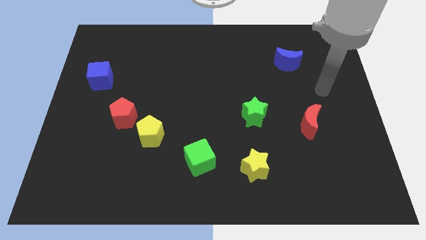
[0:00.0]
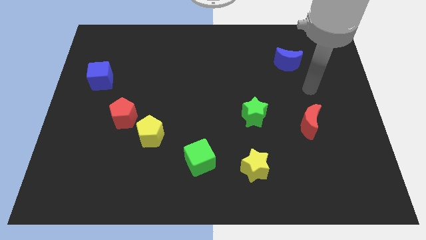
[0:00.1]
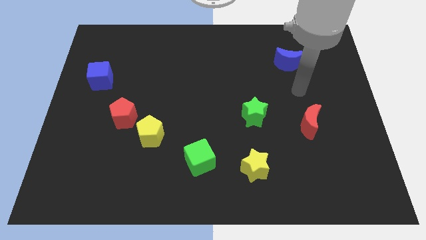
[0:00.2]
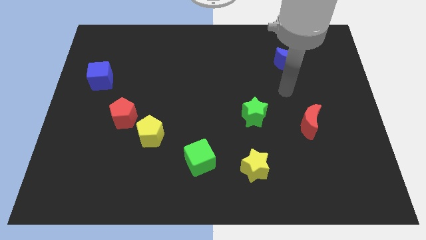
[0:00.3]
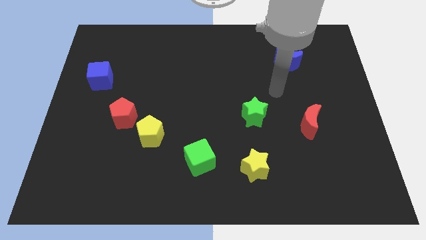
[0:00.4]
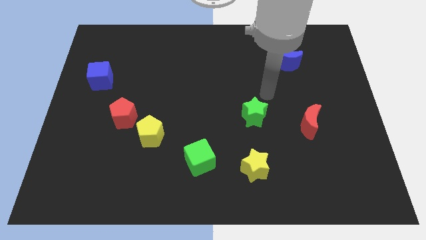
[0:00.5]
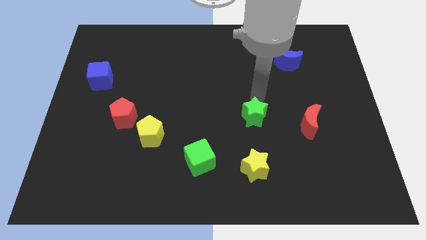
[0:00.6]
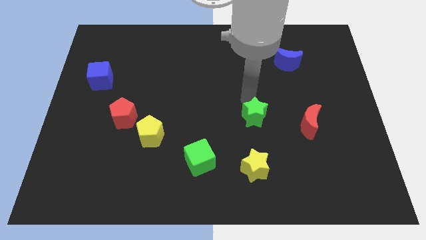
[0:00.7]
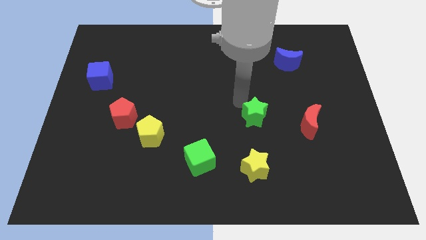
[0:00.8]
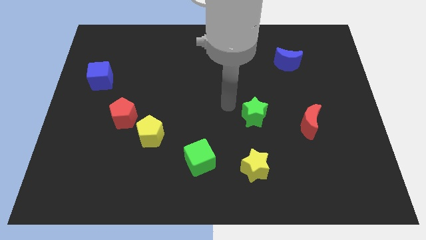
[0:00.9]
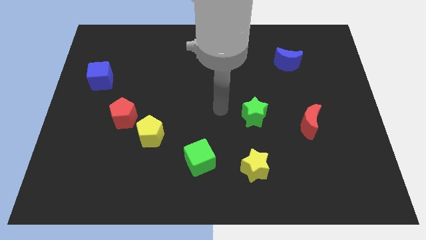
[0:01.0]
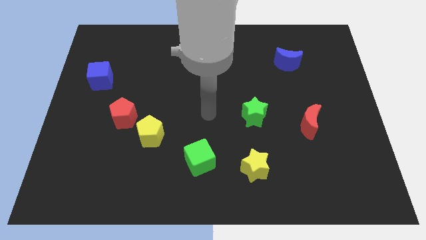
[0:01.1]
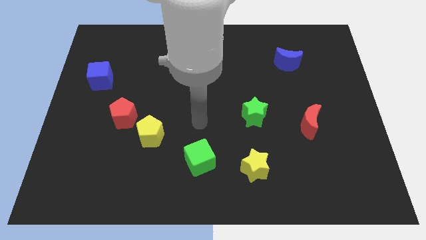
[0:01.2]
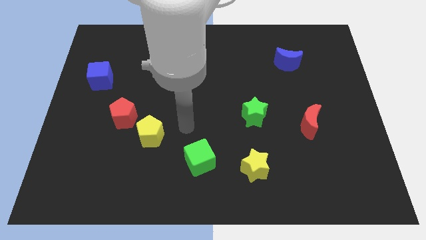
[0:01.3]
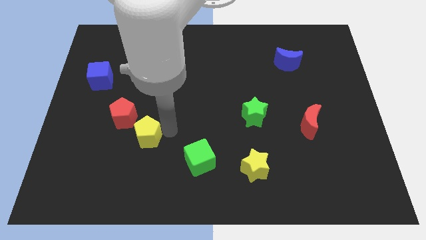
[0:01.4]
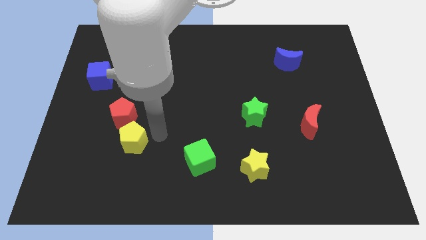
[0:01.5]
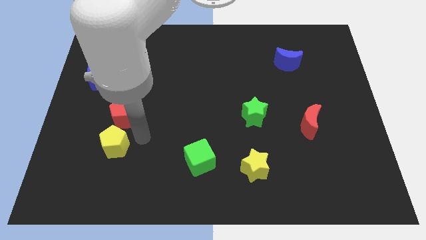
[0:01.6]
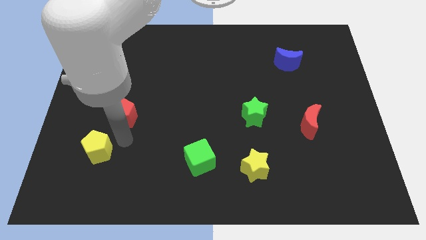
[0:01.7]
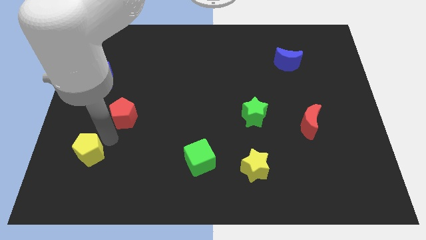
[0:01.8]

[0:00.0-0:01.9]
separate the red pentagon from the yellow pentagon

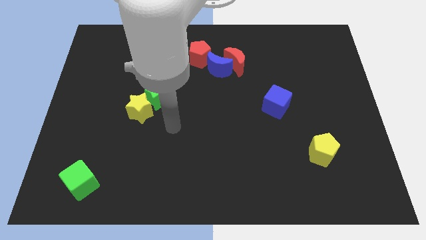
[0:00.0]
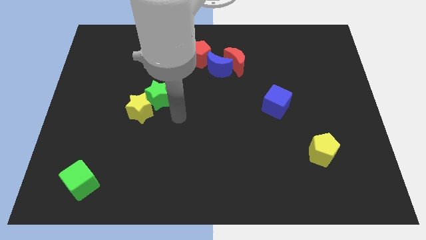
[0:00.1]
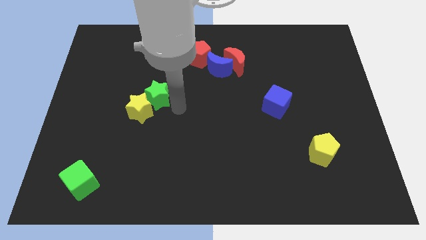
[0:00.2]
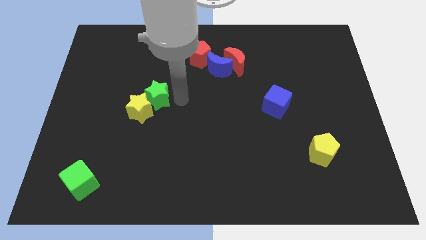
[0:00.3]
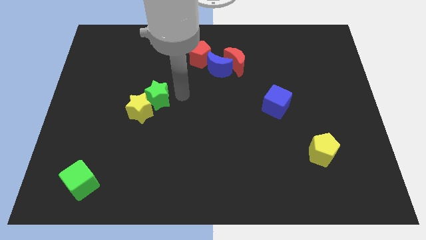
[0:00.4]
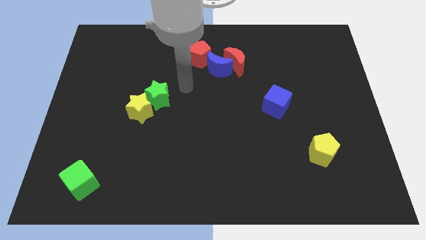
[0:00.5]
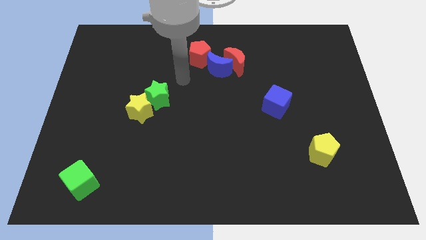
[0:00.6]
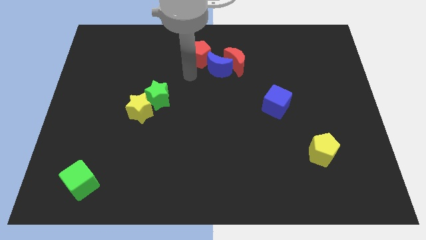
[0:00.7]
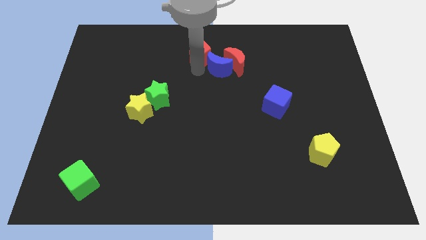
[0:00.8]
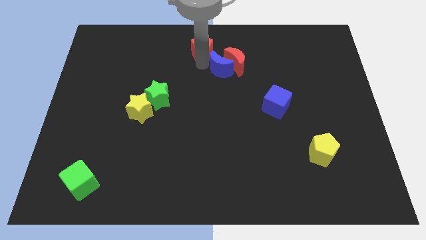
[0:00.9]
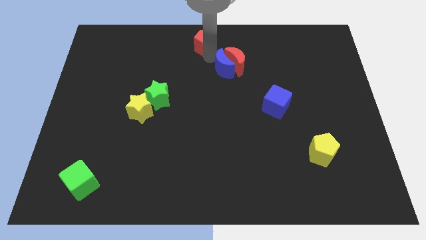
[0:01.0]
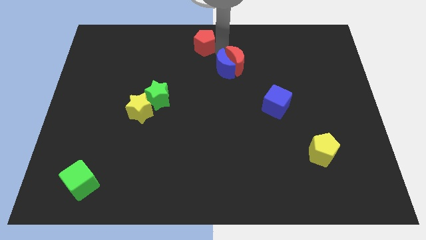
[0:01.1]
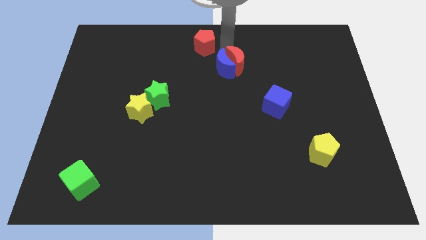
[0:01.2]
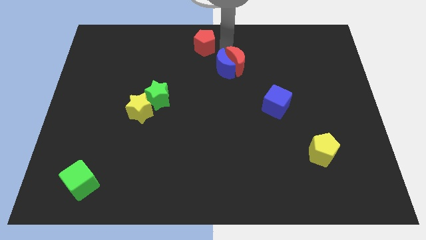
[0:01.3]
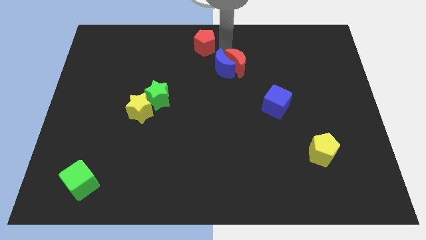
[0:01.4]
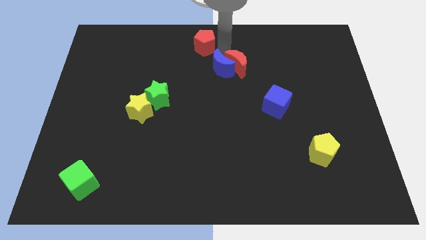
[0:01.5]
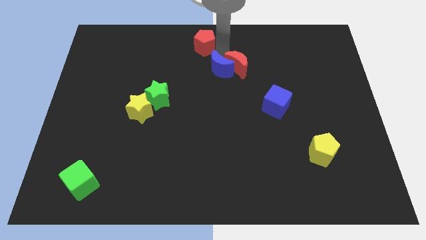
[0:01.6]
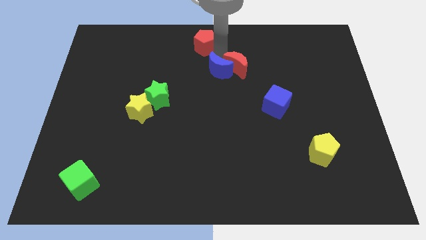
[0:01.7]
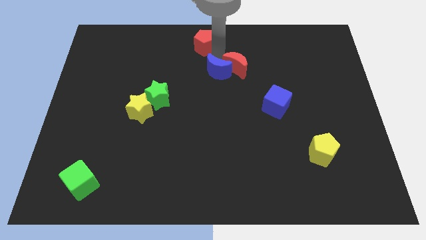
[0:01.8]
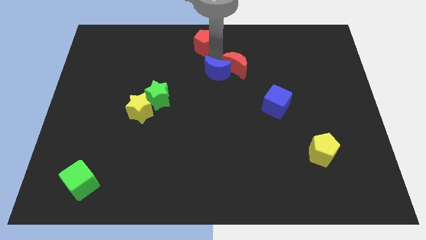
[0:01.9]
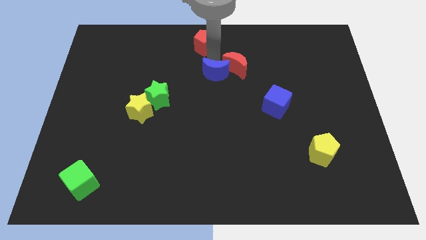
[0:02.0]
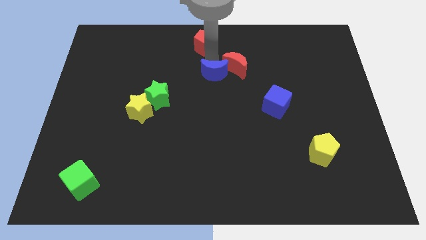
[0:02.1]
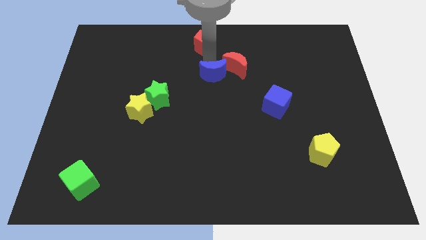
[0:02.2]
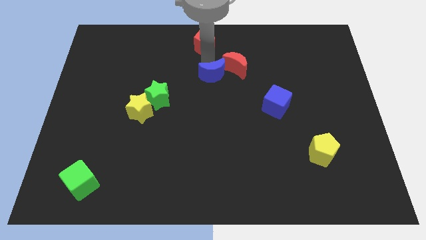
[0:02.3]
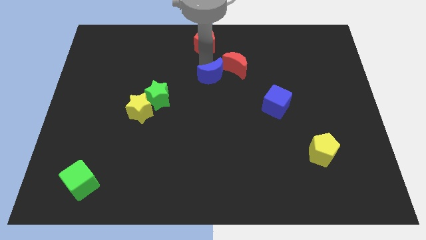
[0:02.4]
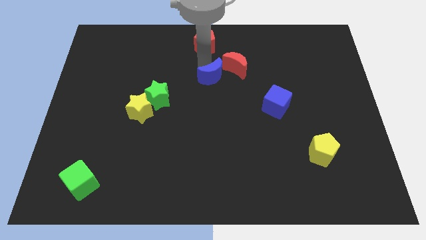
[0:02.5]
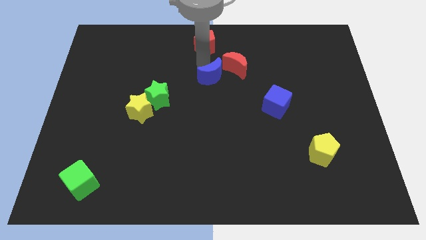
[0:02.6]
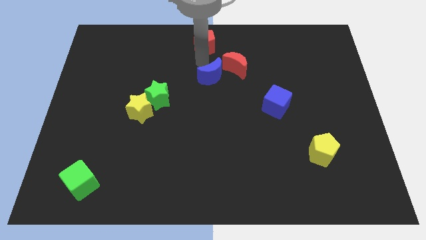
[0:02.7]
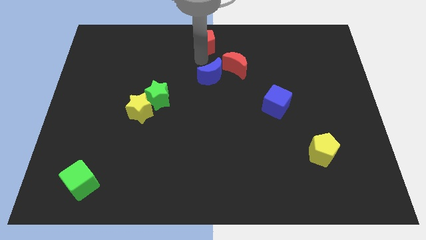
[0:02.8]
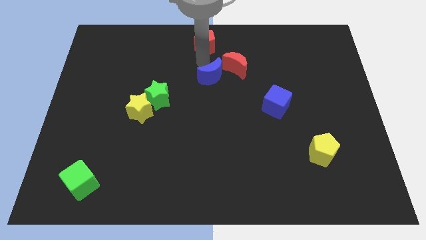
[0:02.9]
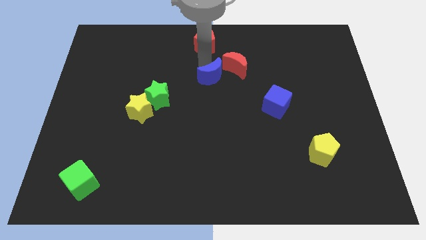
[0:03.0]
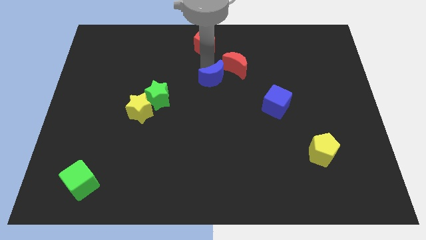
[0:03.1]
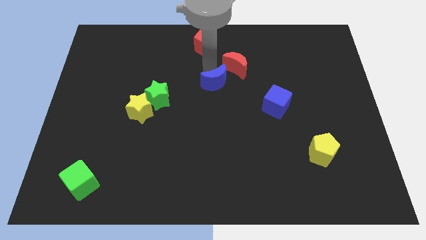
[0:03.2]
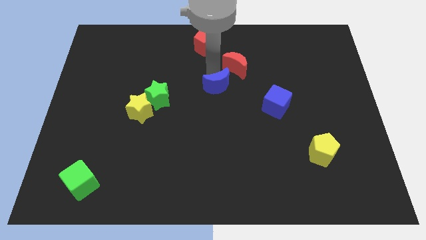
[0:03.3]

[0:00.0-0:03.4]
separate the blue moon from the red moon and red pentagon

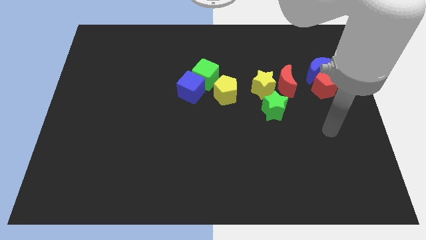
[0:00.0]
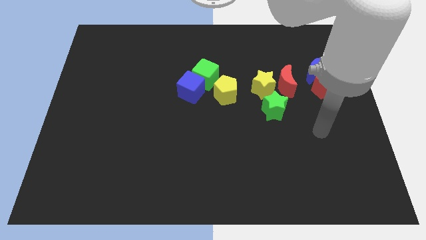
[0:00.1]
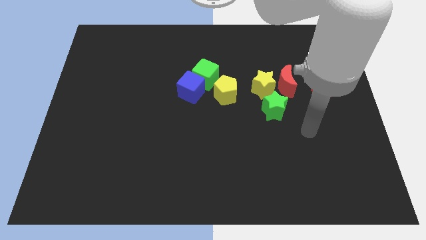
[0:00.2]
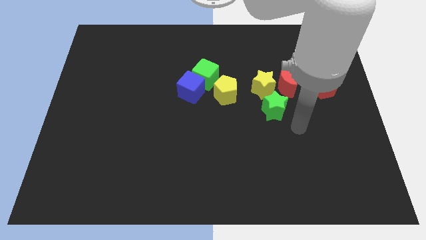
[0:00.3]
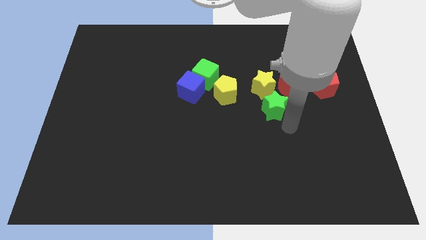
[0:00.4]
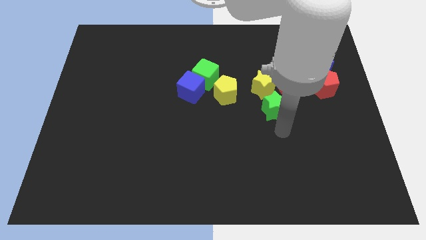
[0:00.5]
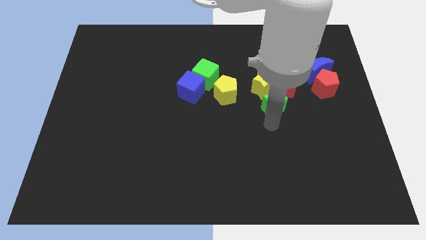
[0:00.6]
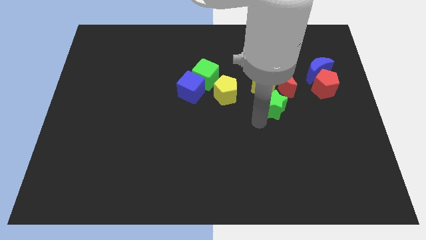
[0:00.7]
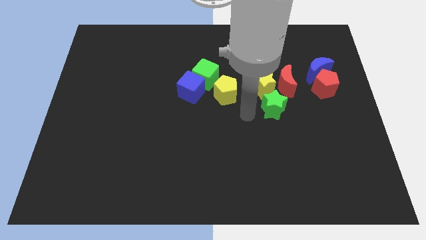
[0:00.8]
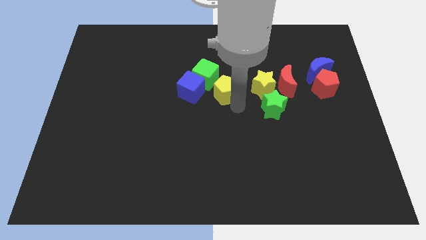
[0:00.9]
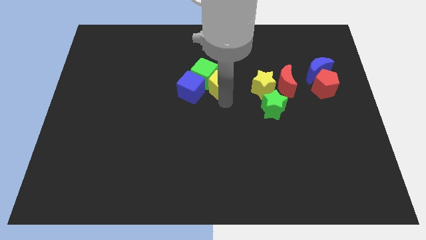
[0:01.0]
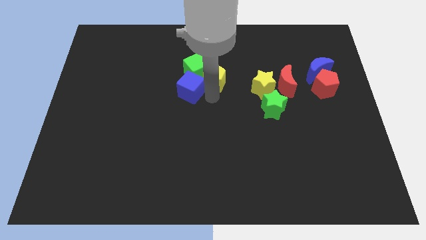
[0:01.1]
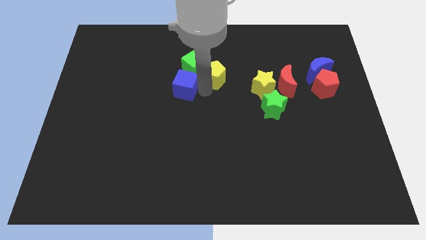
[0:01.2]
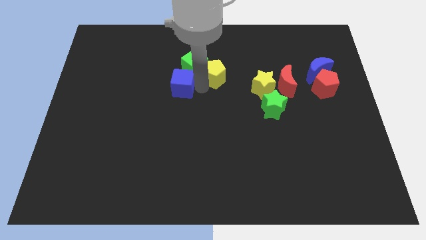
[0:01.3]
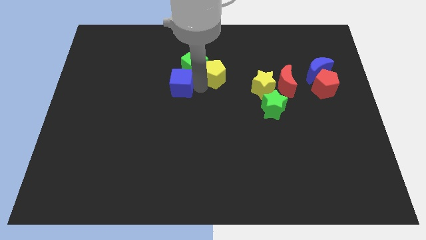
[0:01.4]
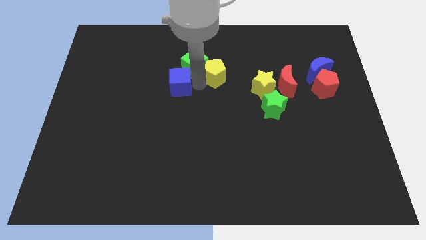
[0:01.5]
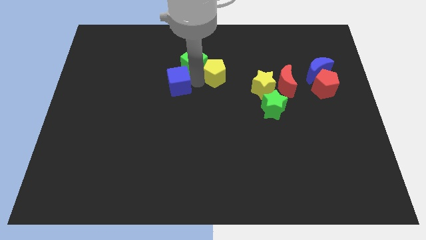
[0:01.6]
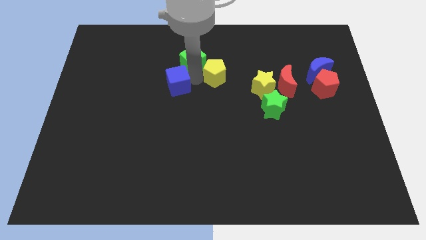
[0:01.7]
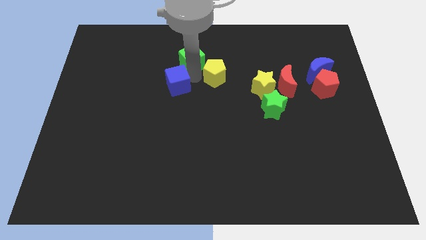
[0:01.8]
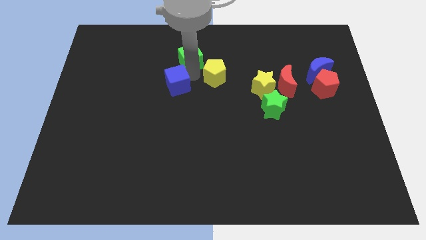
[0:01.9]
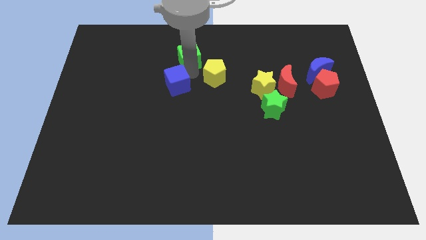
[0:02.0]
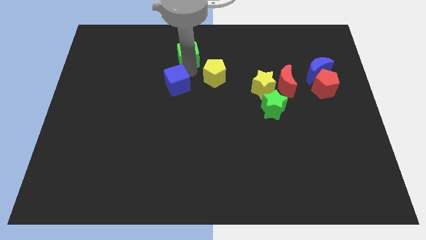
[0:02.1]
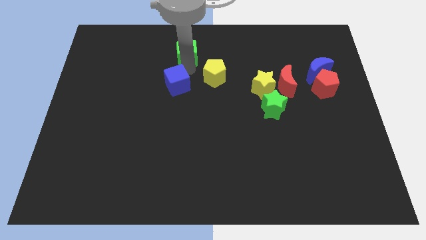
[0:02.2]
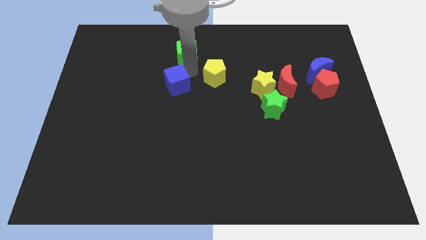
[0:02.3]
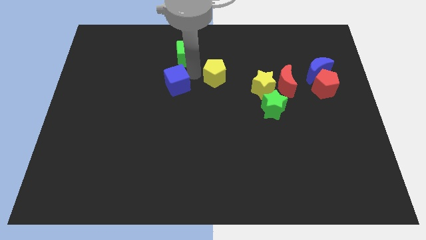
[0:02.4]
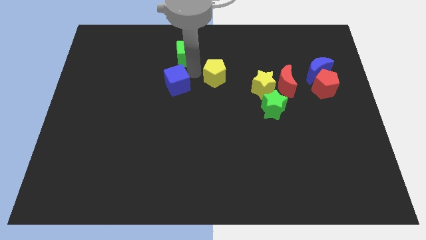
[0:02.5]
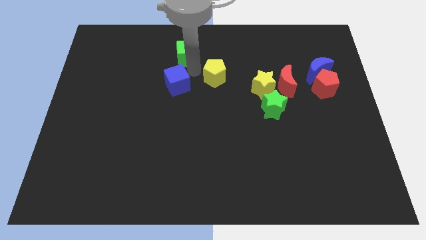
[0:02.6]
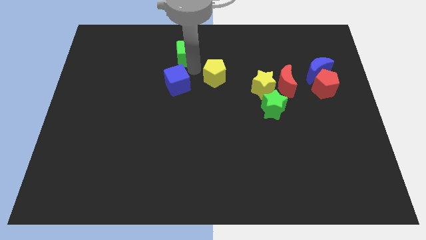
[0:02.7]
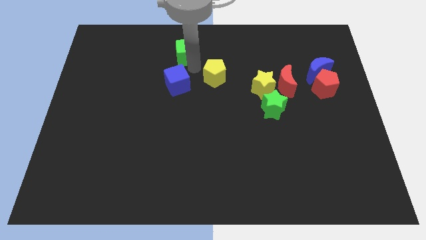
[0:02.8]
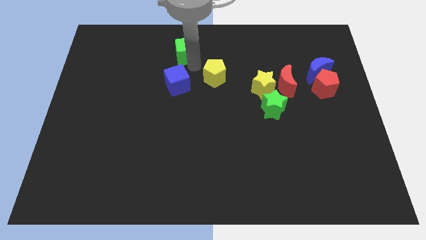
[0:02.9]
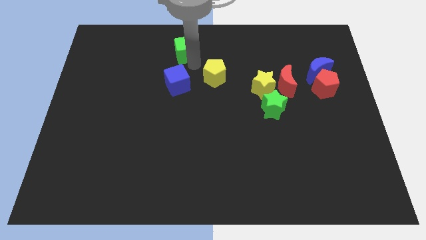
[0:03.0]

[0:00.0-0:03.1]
separate the green cube from the blue cube and yellow pentagon

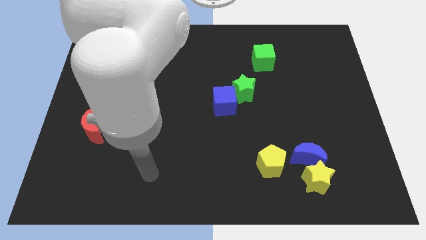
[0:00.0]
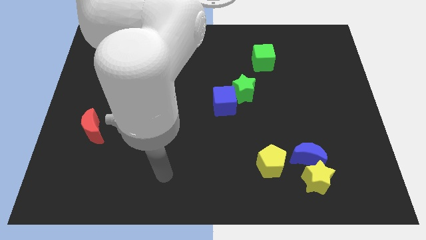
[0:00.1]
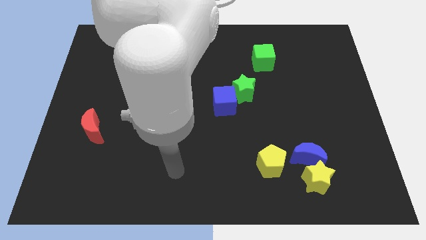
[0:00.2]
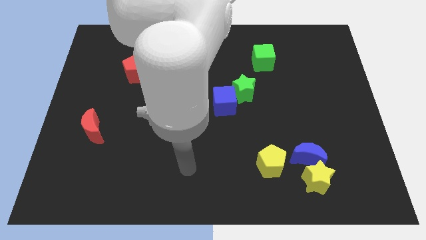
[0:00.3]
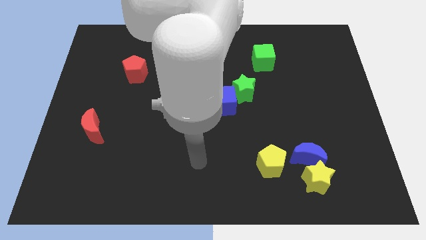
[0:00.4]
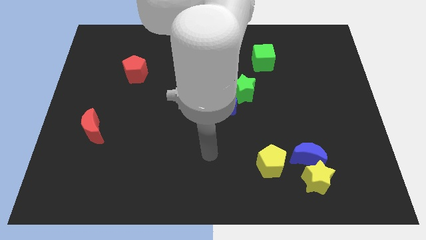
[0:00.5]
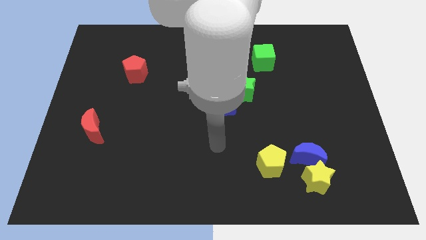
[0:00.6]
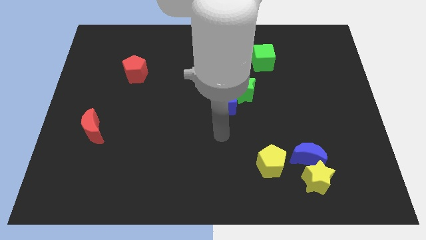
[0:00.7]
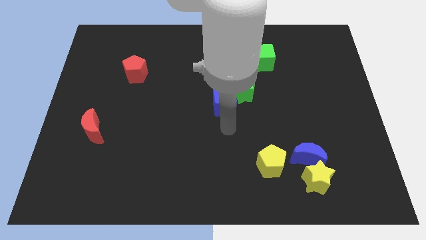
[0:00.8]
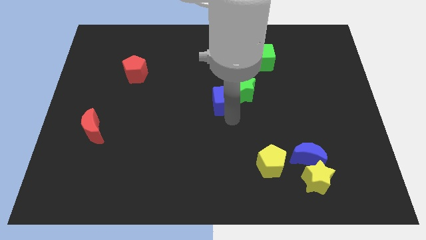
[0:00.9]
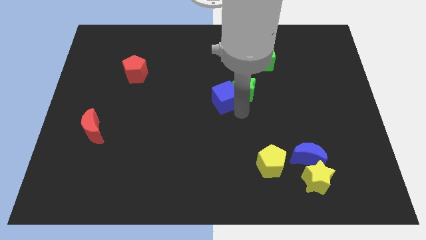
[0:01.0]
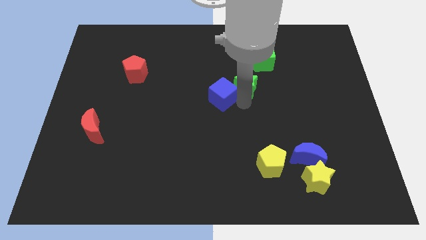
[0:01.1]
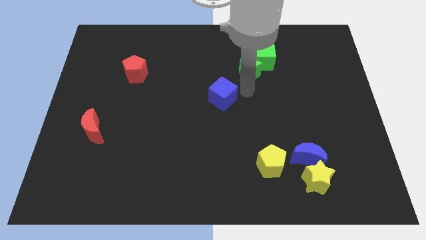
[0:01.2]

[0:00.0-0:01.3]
move the blue cube away from the green star
